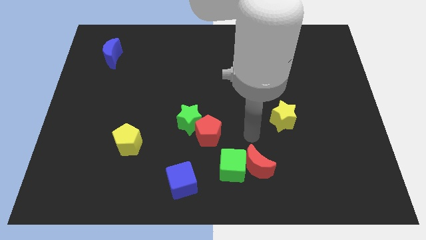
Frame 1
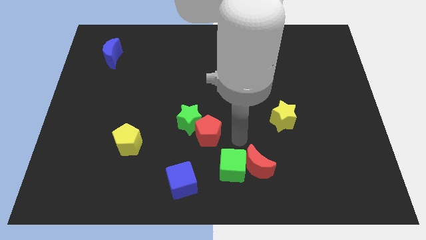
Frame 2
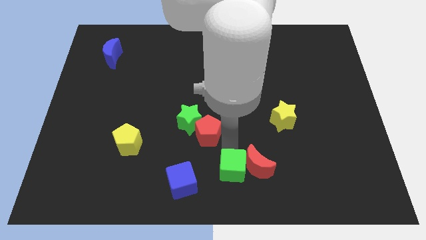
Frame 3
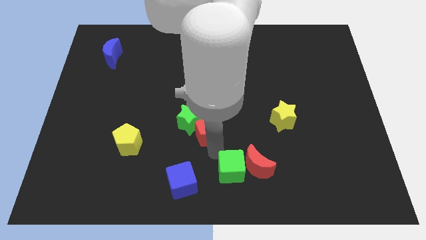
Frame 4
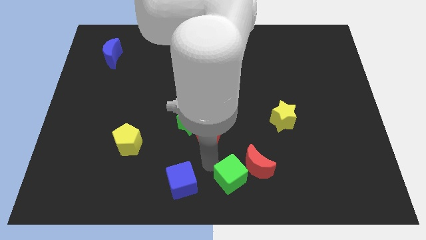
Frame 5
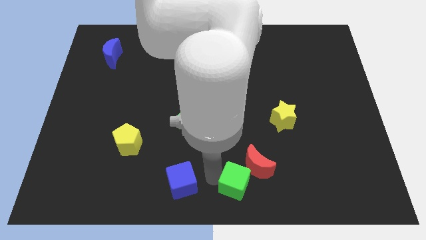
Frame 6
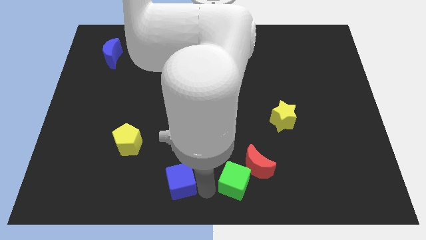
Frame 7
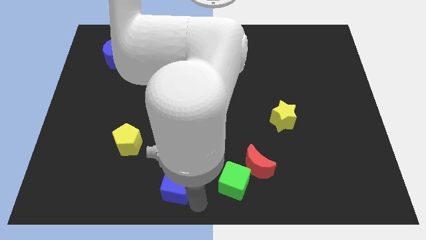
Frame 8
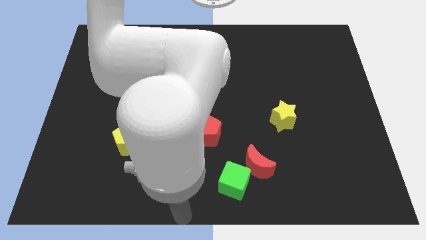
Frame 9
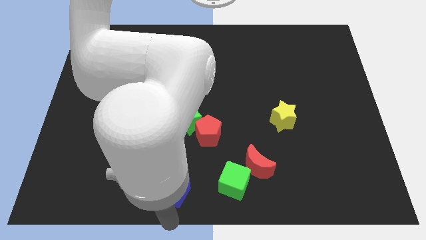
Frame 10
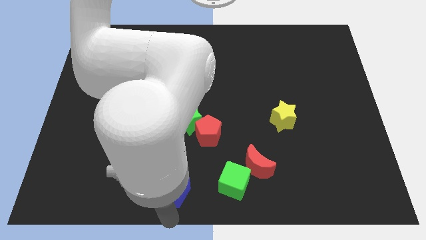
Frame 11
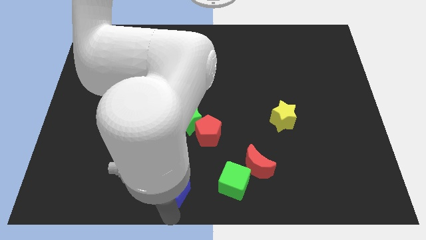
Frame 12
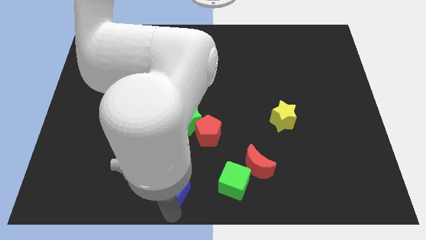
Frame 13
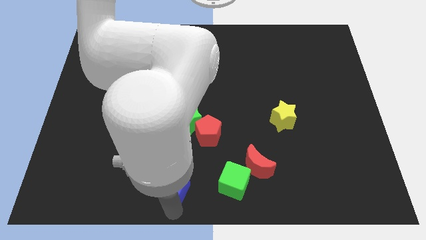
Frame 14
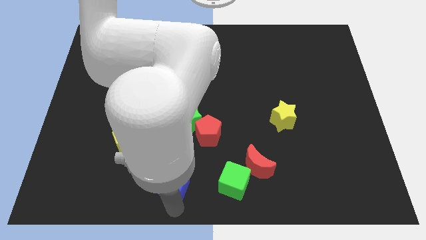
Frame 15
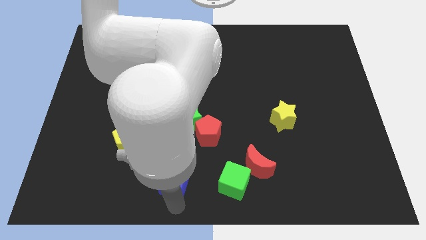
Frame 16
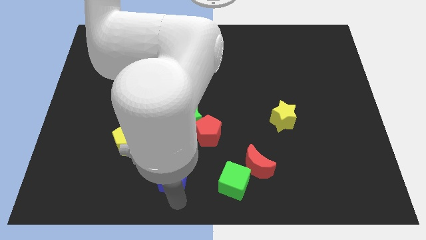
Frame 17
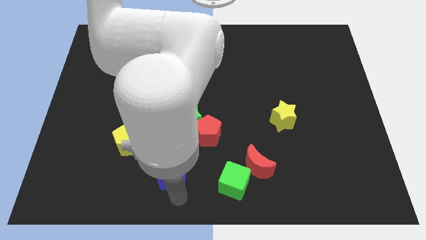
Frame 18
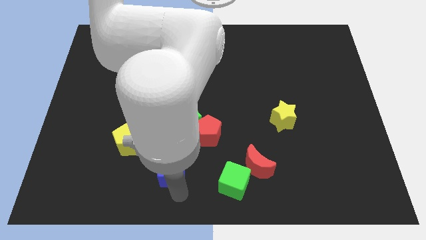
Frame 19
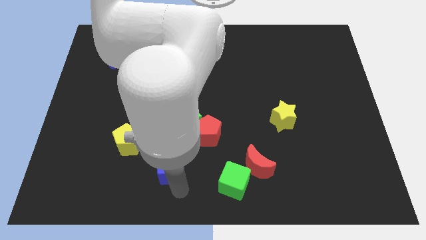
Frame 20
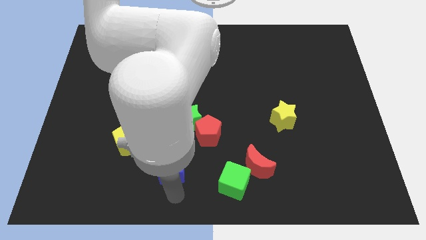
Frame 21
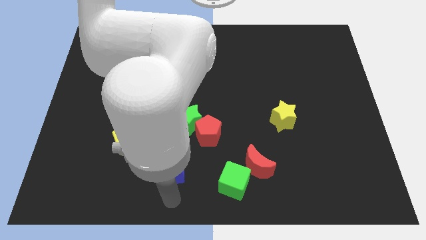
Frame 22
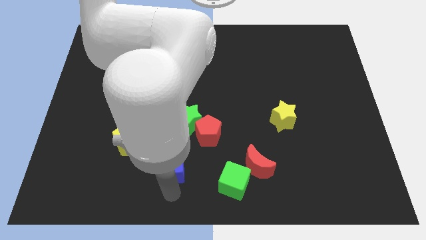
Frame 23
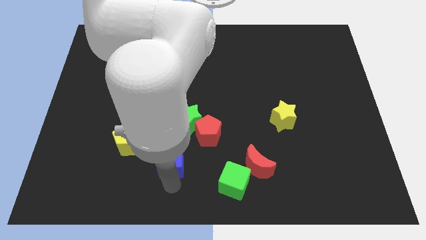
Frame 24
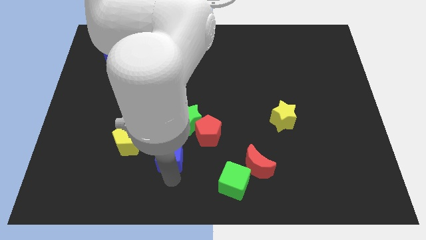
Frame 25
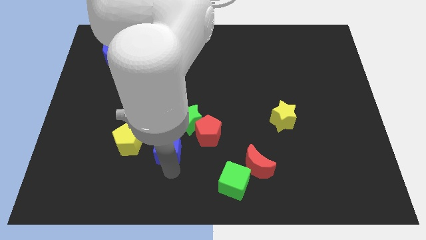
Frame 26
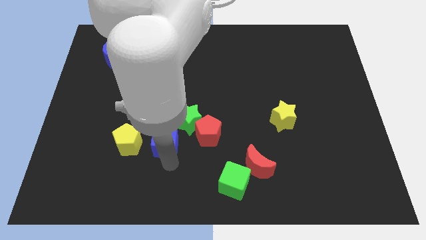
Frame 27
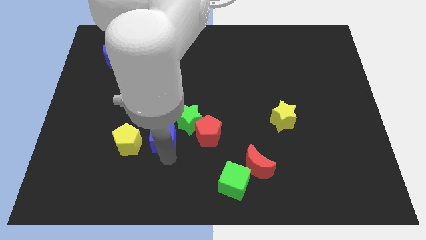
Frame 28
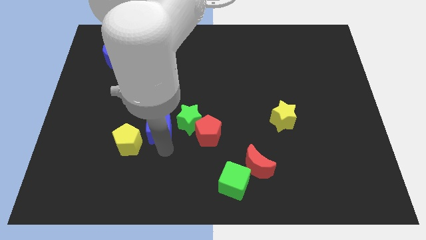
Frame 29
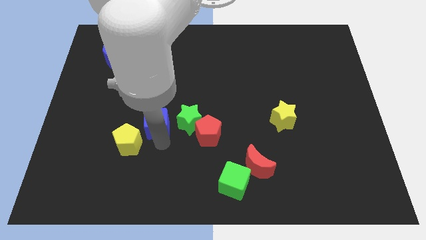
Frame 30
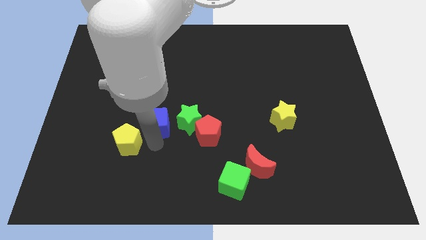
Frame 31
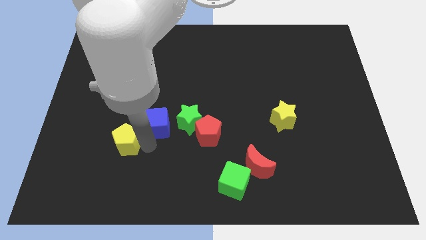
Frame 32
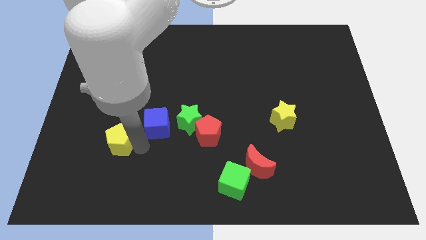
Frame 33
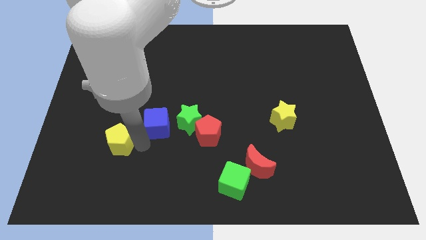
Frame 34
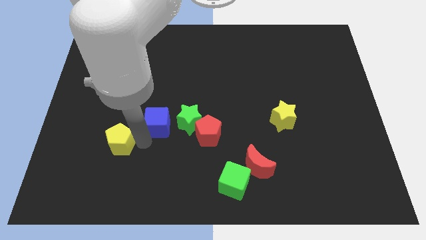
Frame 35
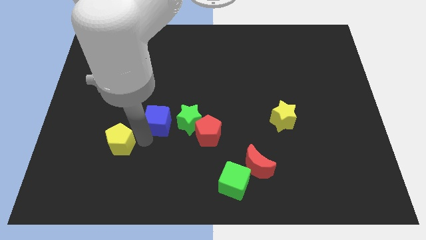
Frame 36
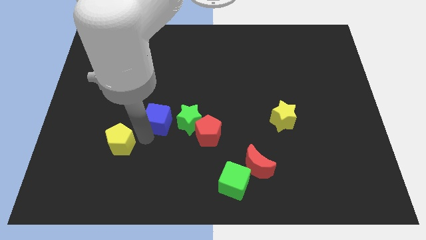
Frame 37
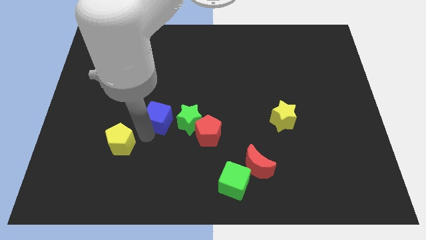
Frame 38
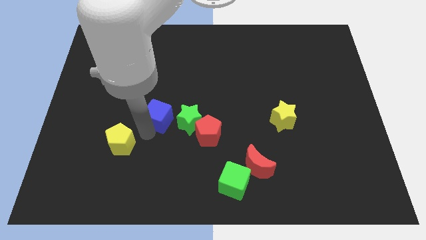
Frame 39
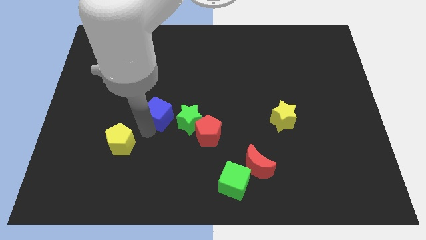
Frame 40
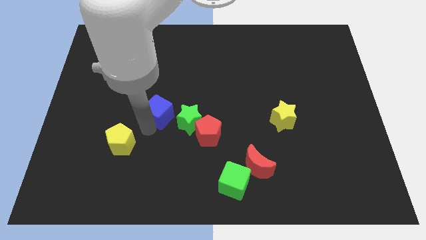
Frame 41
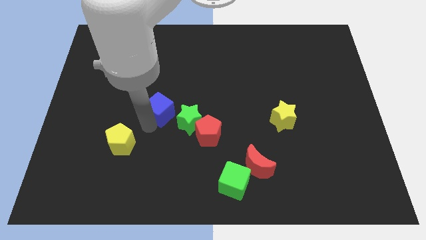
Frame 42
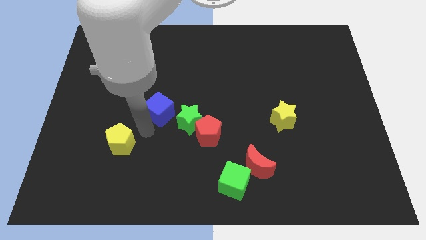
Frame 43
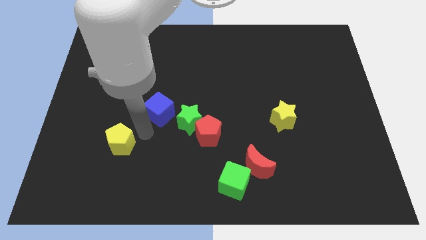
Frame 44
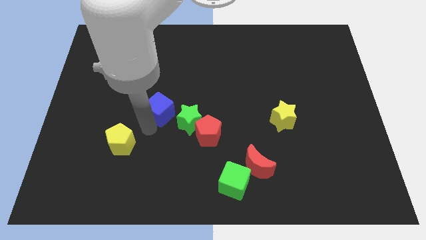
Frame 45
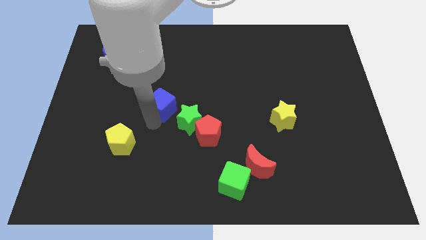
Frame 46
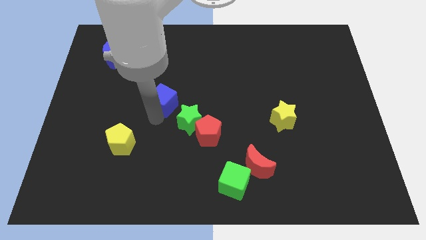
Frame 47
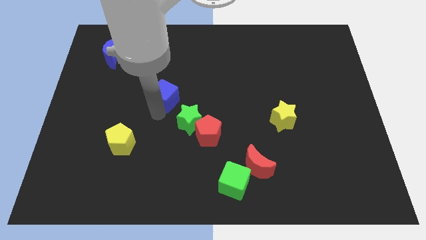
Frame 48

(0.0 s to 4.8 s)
move the blue cube upwards

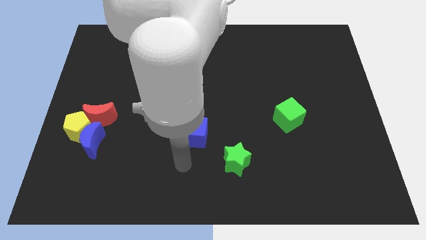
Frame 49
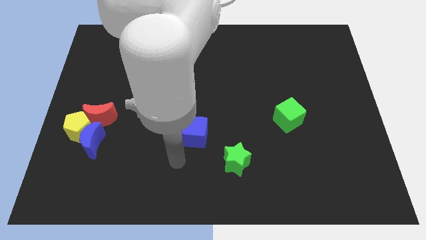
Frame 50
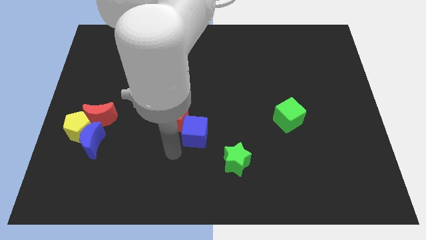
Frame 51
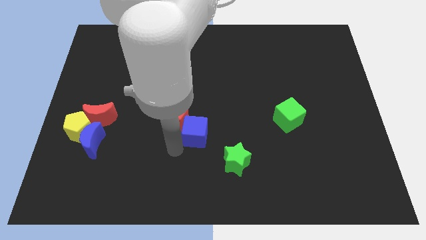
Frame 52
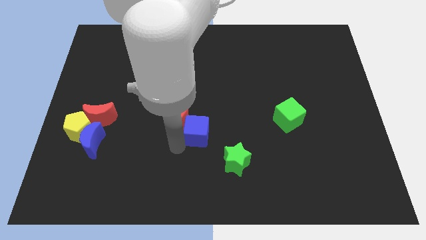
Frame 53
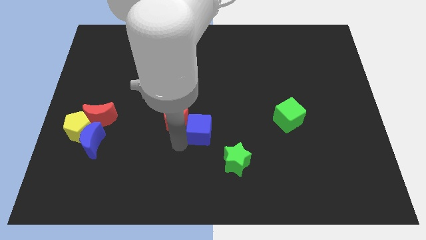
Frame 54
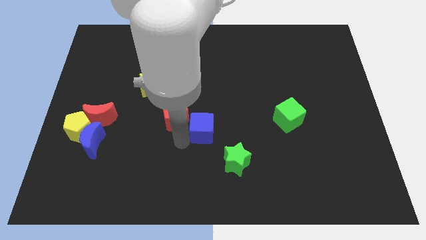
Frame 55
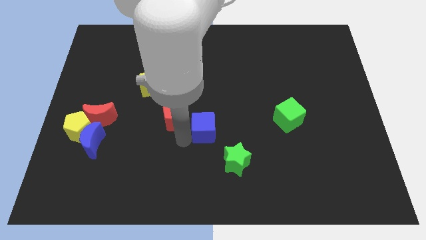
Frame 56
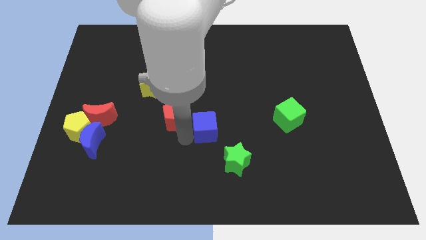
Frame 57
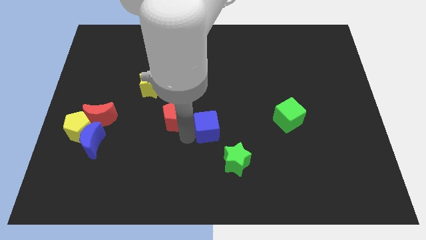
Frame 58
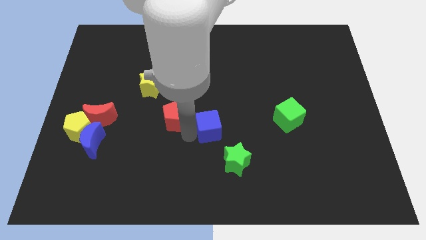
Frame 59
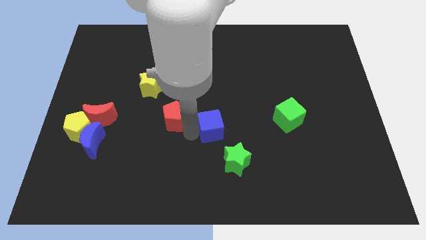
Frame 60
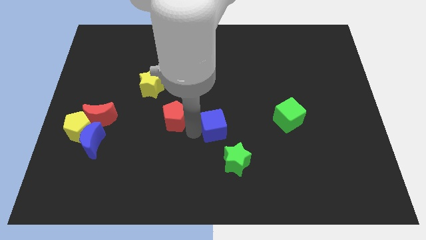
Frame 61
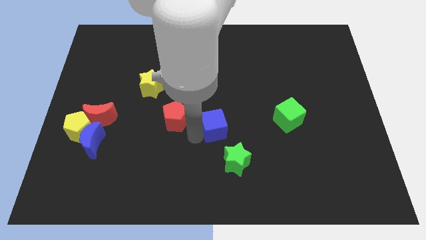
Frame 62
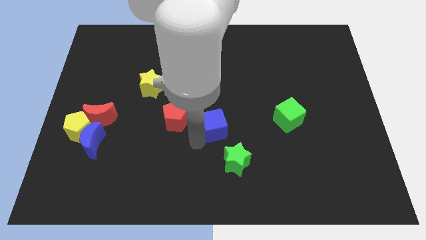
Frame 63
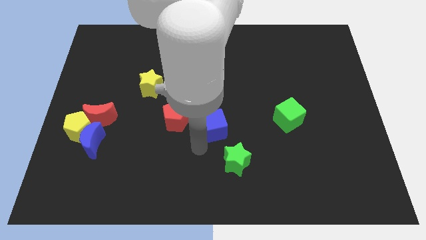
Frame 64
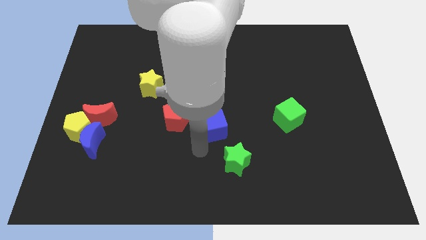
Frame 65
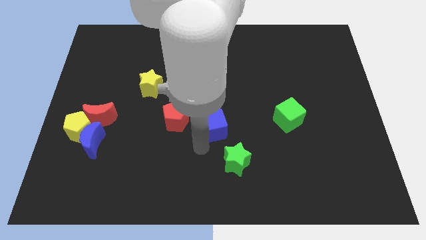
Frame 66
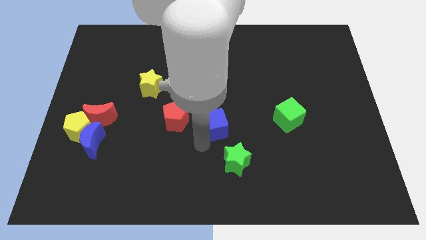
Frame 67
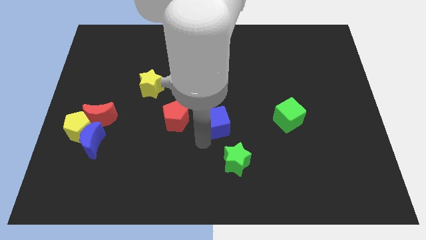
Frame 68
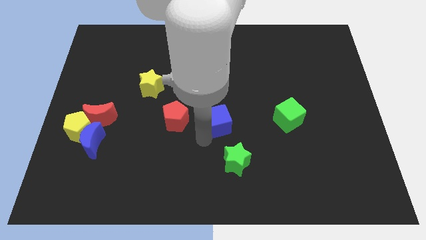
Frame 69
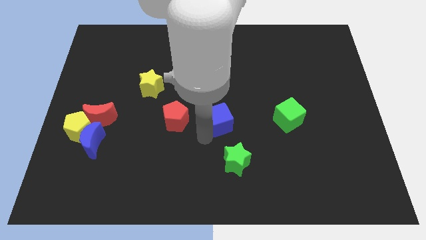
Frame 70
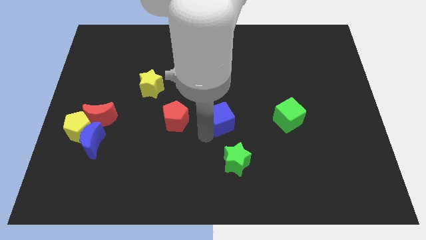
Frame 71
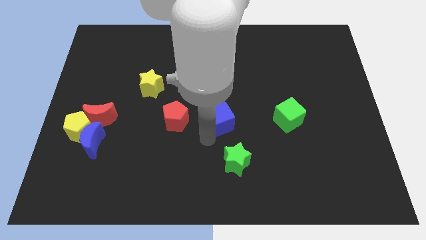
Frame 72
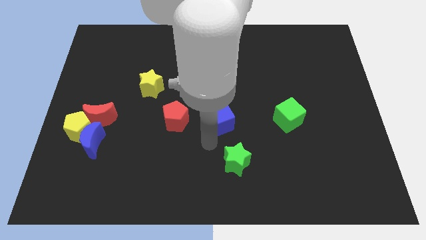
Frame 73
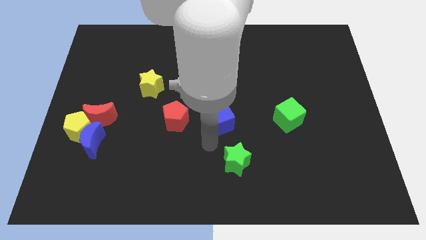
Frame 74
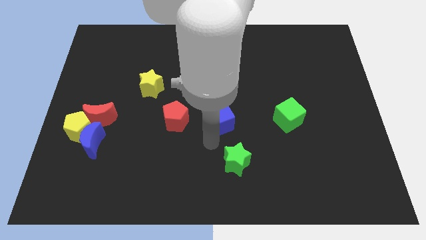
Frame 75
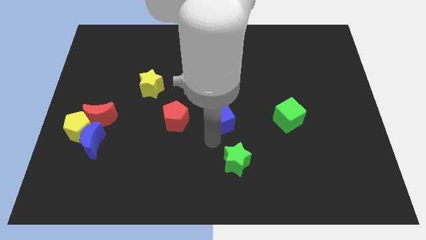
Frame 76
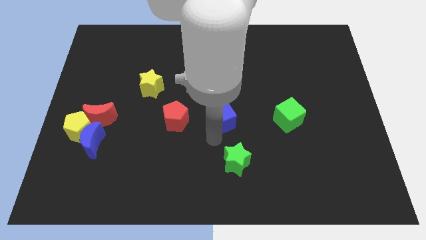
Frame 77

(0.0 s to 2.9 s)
slightly push the blue cube upwards and to the right

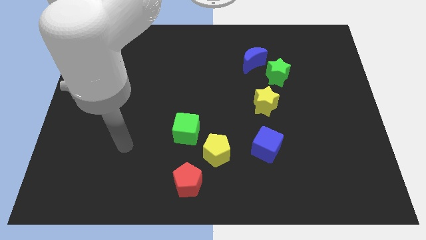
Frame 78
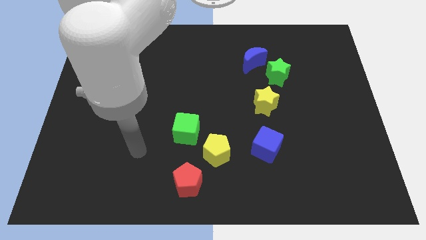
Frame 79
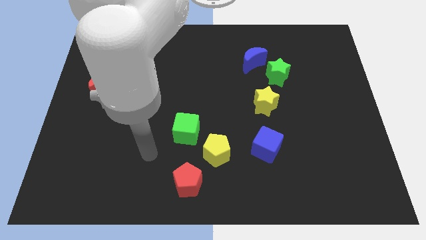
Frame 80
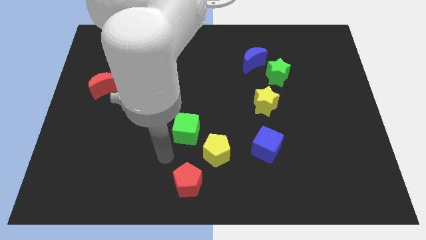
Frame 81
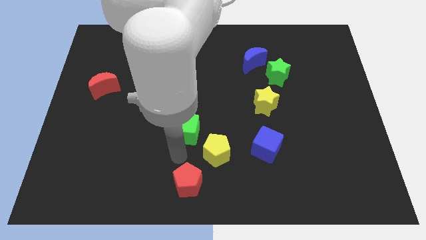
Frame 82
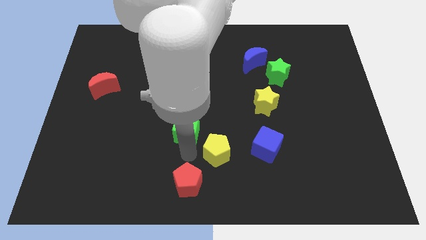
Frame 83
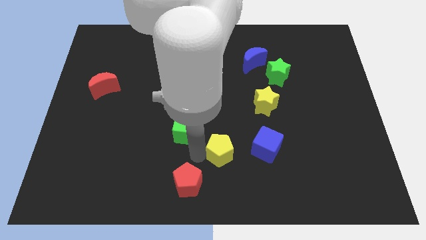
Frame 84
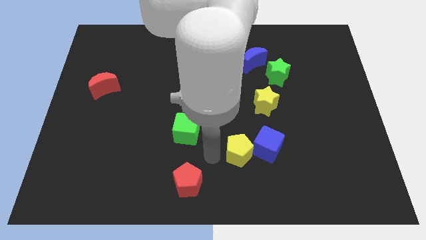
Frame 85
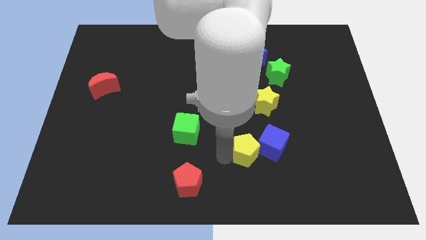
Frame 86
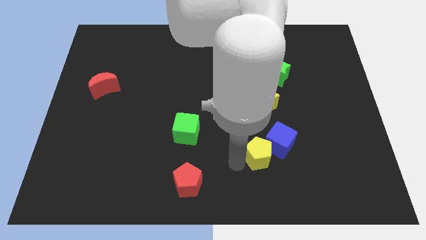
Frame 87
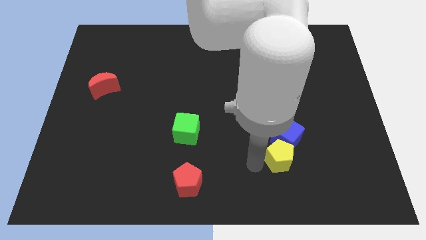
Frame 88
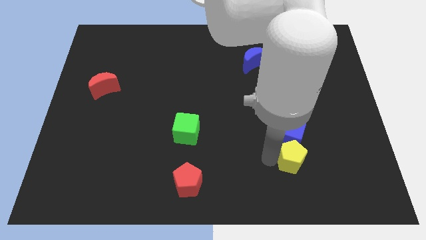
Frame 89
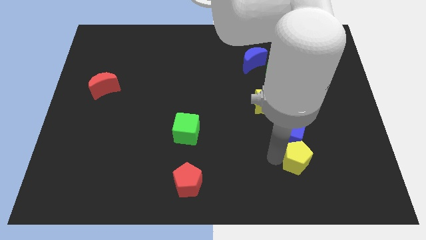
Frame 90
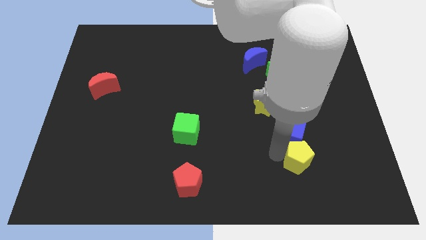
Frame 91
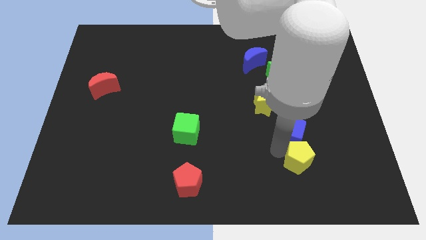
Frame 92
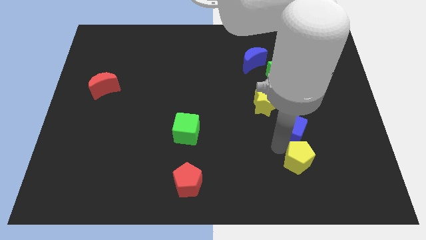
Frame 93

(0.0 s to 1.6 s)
push the blue cube a little bit upwards and then right
